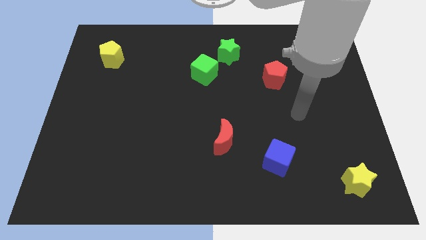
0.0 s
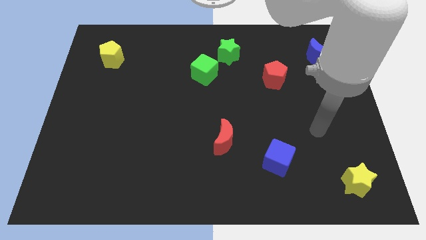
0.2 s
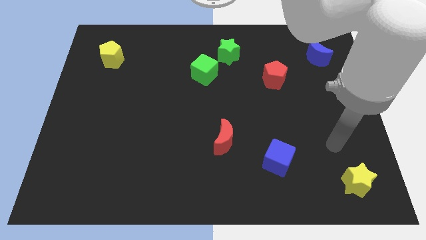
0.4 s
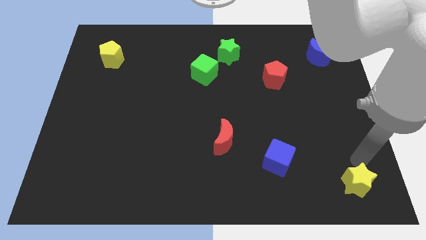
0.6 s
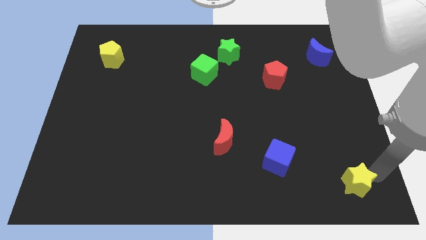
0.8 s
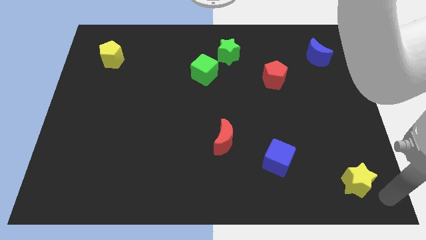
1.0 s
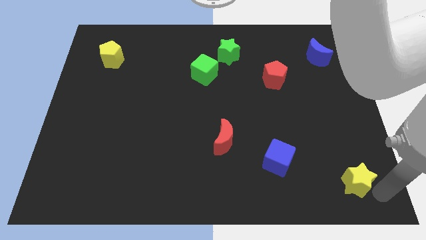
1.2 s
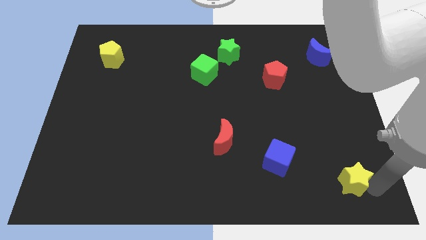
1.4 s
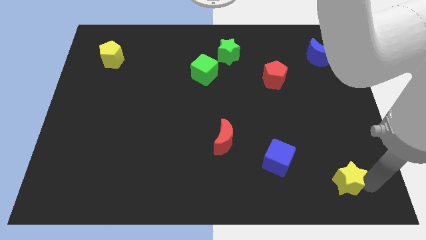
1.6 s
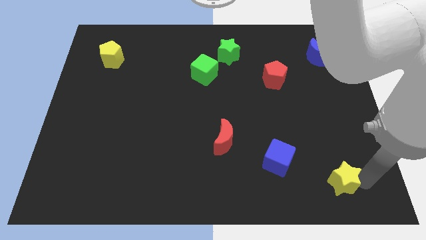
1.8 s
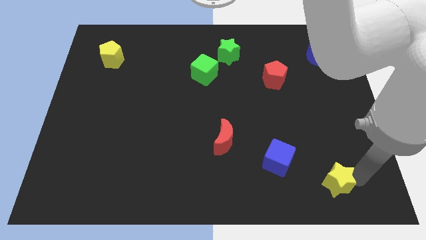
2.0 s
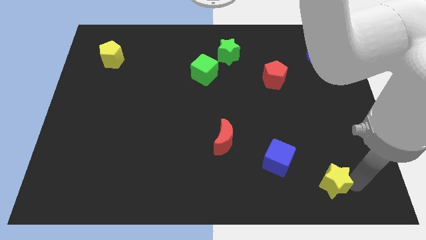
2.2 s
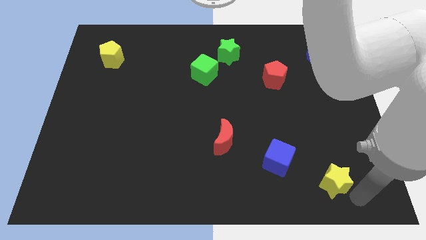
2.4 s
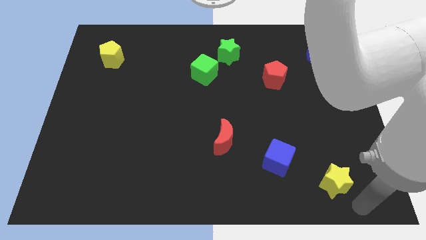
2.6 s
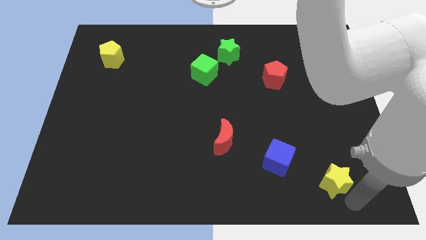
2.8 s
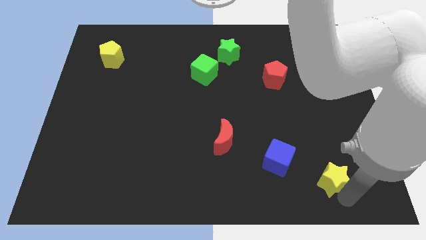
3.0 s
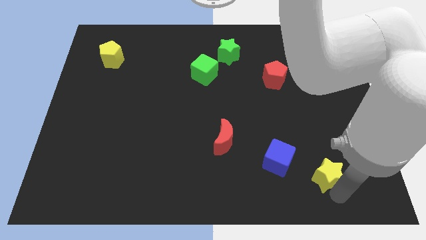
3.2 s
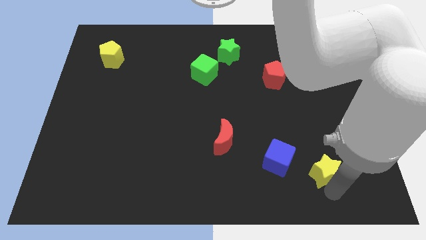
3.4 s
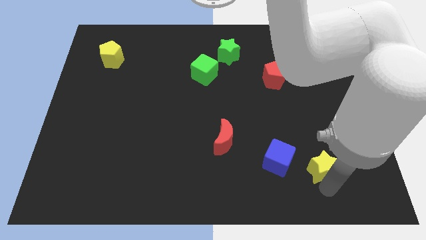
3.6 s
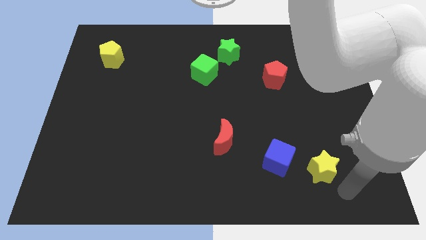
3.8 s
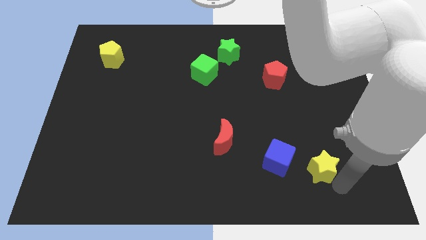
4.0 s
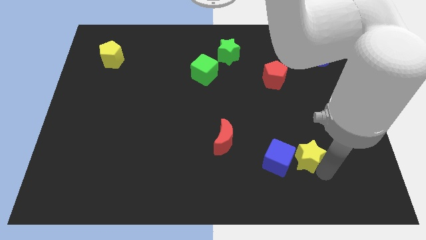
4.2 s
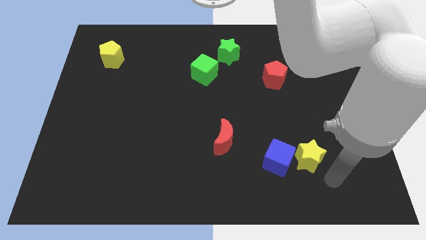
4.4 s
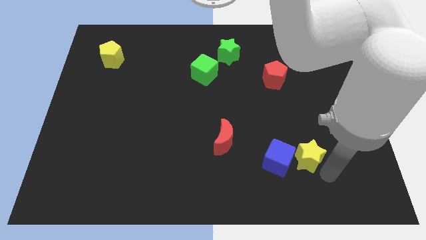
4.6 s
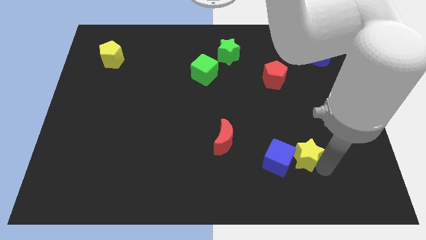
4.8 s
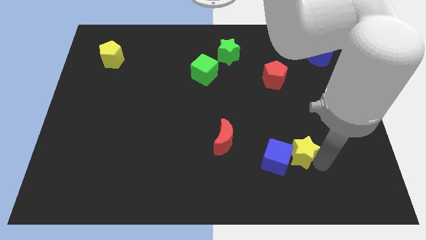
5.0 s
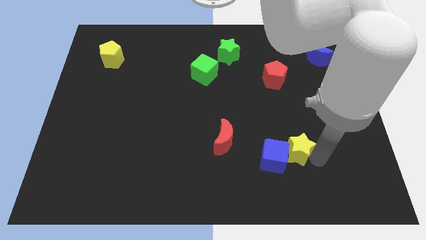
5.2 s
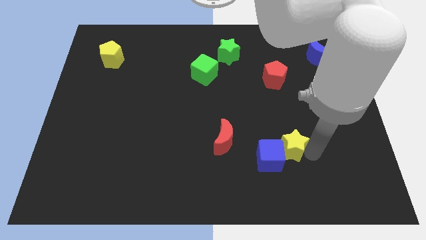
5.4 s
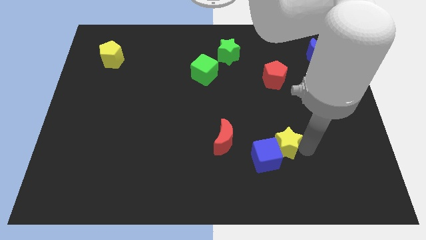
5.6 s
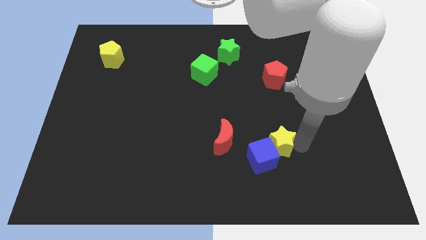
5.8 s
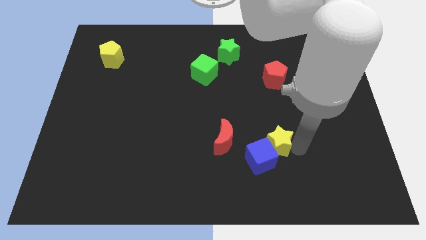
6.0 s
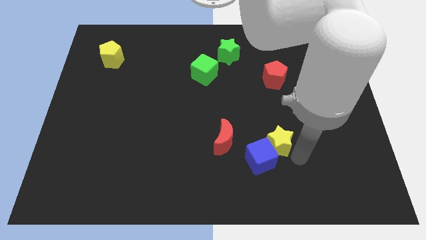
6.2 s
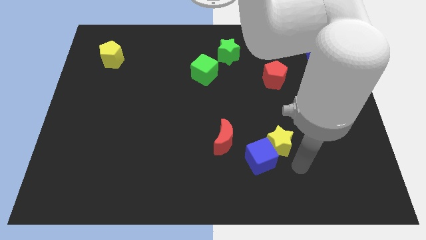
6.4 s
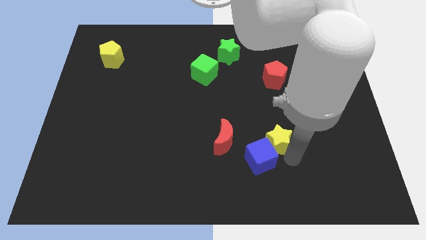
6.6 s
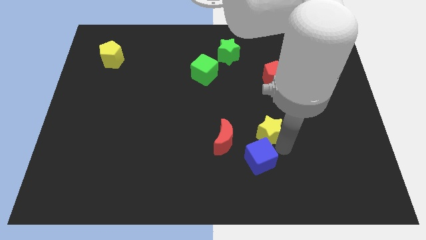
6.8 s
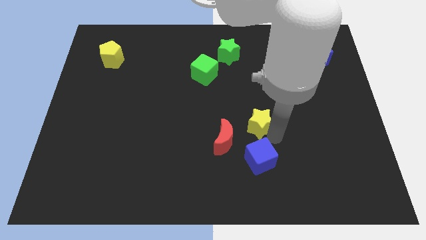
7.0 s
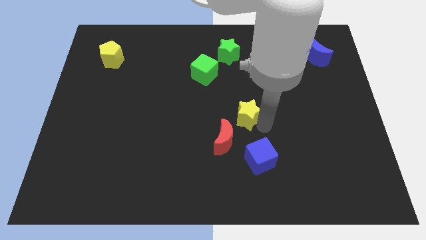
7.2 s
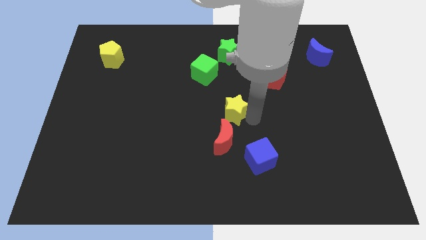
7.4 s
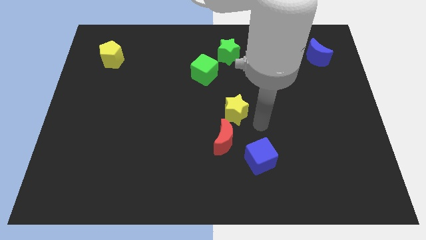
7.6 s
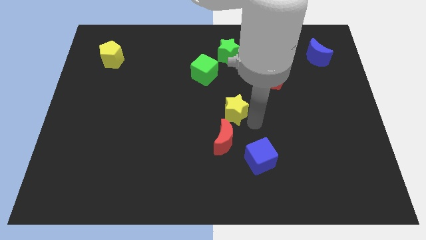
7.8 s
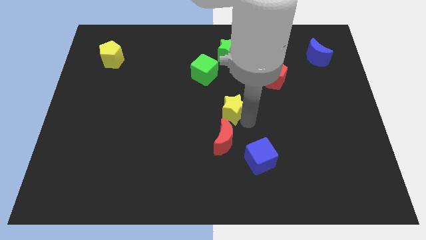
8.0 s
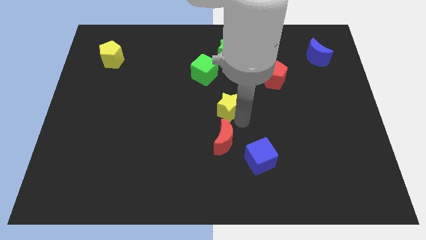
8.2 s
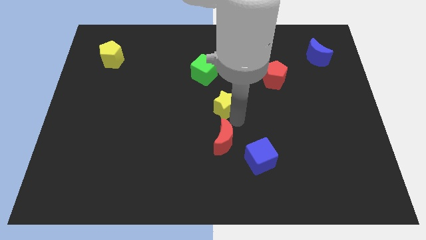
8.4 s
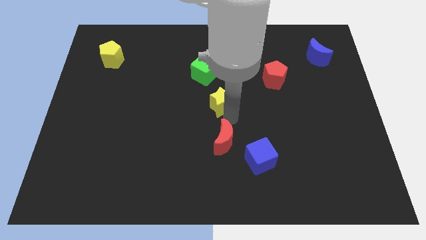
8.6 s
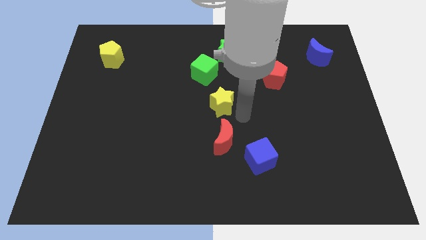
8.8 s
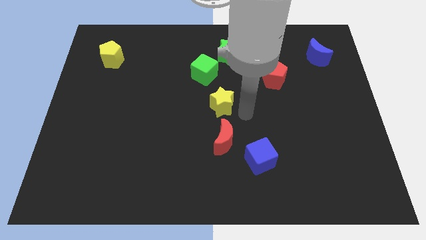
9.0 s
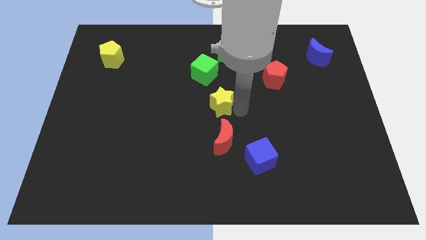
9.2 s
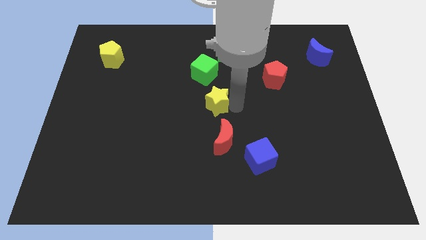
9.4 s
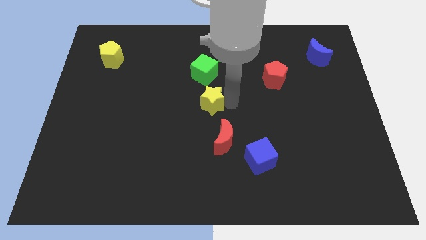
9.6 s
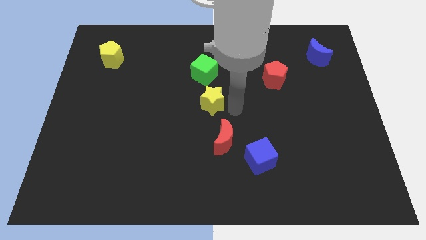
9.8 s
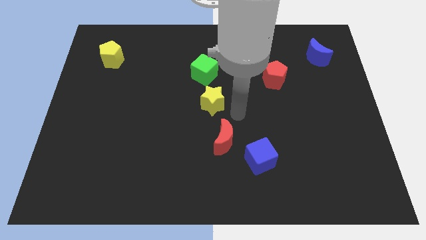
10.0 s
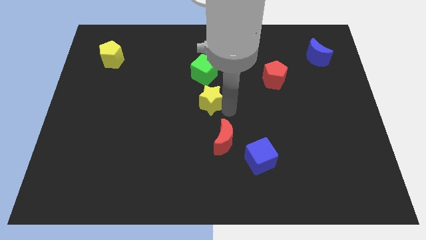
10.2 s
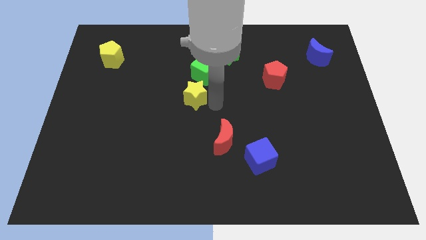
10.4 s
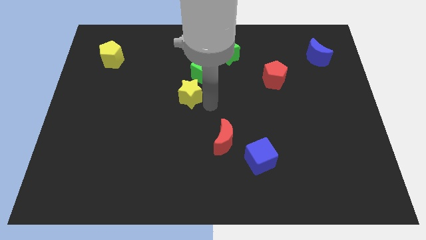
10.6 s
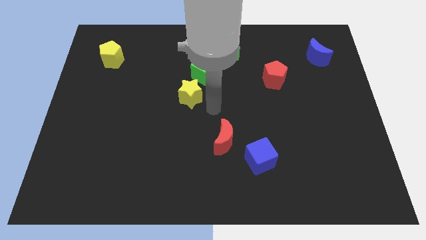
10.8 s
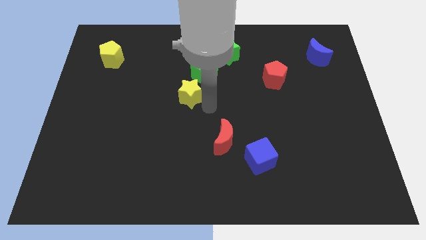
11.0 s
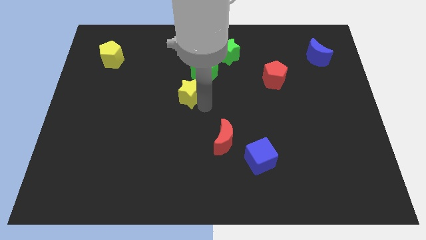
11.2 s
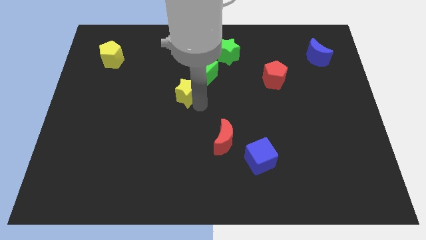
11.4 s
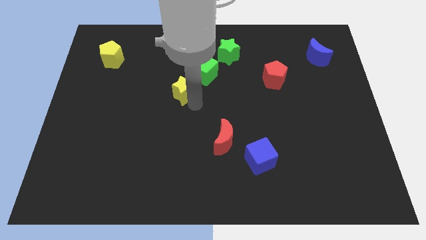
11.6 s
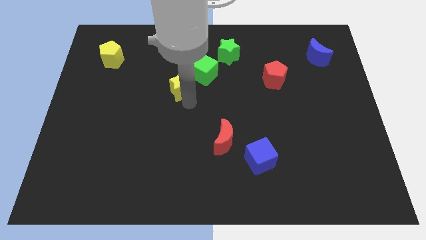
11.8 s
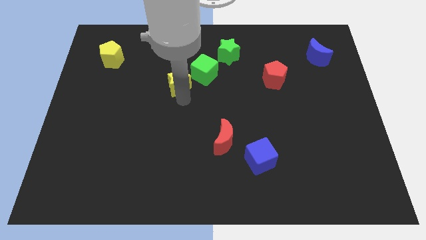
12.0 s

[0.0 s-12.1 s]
put the yellow star just left of the green cube

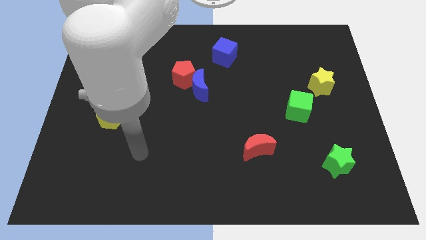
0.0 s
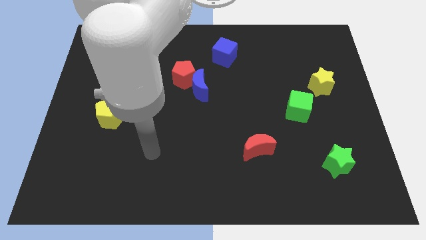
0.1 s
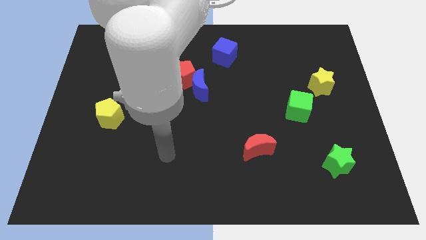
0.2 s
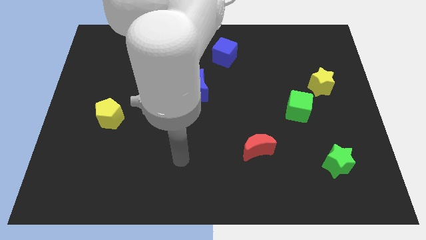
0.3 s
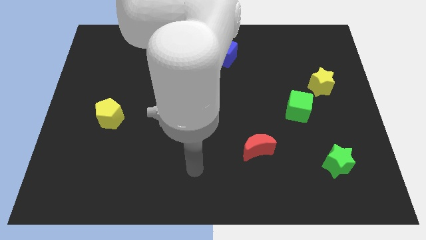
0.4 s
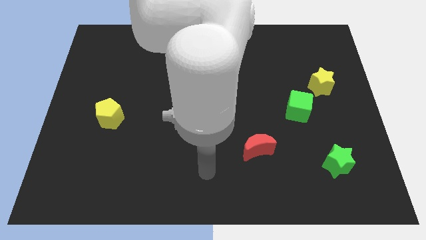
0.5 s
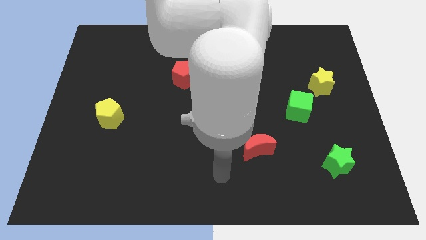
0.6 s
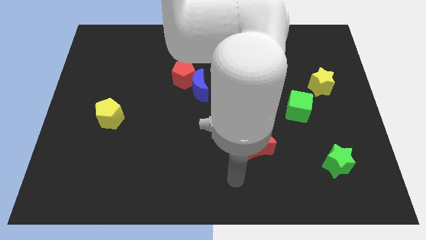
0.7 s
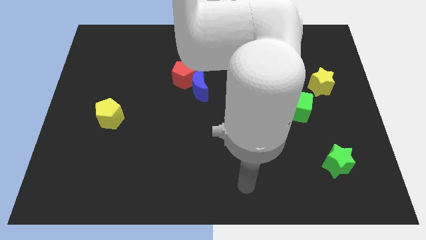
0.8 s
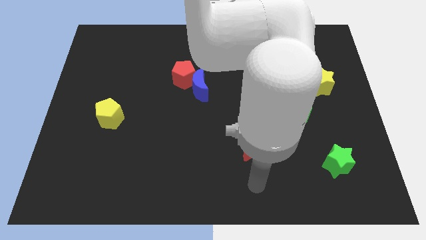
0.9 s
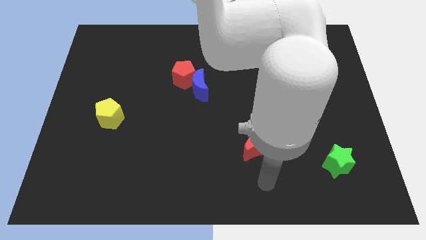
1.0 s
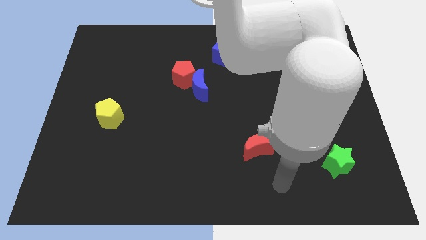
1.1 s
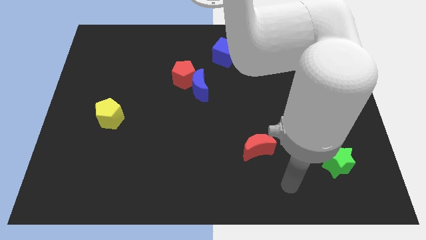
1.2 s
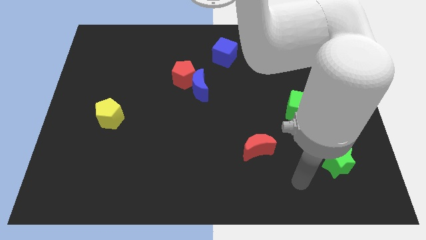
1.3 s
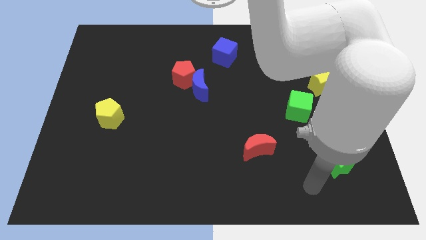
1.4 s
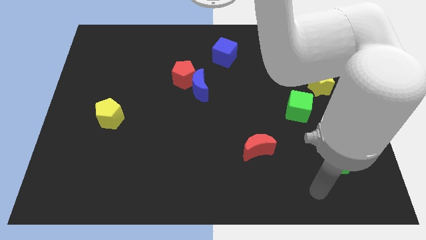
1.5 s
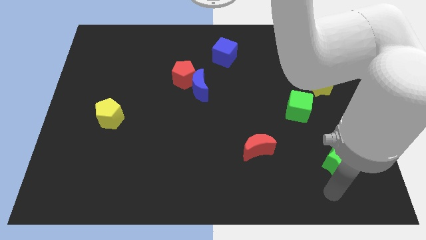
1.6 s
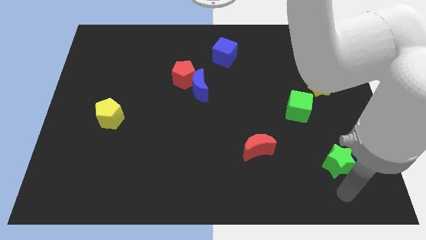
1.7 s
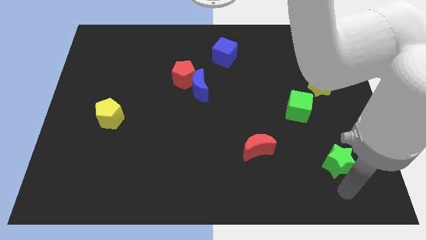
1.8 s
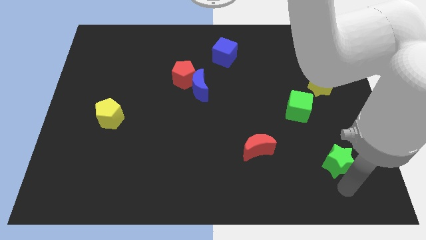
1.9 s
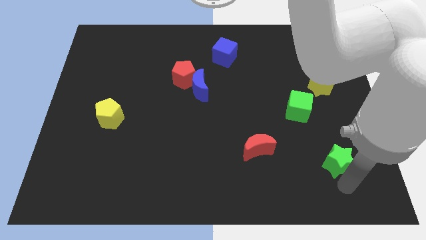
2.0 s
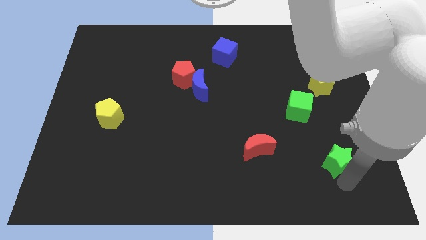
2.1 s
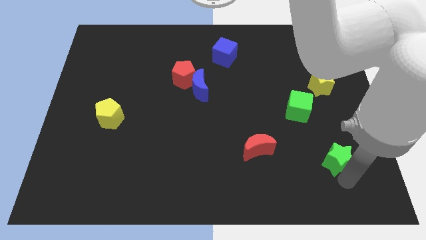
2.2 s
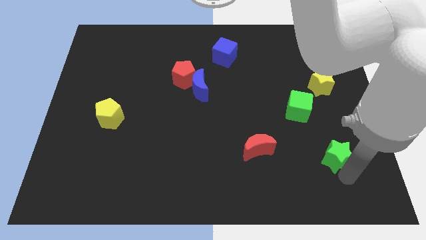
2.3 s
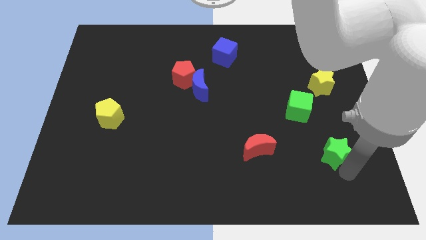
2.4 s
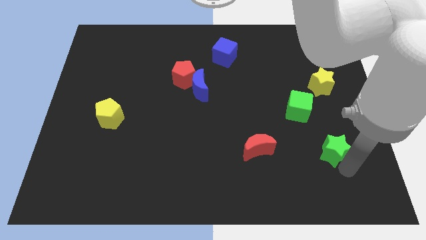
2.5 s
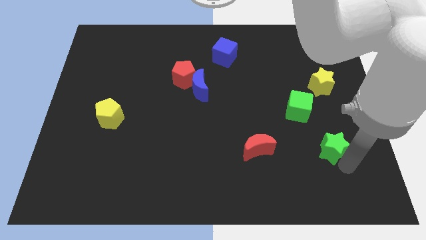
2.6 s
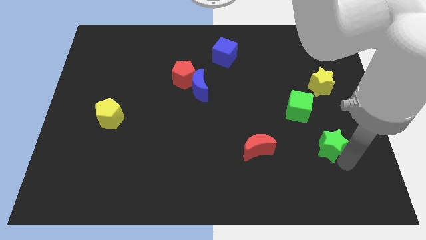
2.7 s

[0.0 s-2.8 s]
move the green star diagonally down and to the right of the green cube
